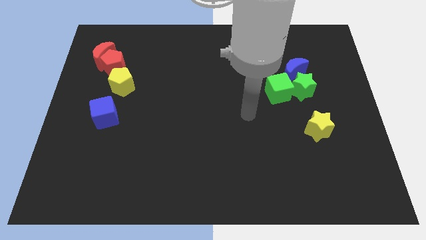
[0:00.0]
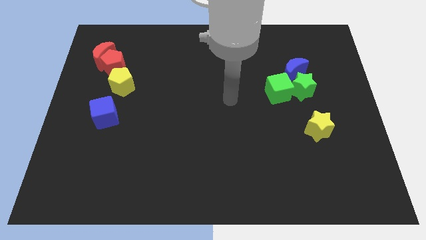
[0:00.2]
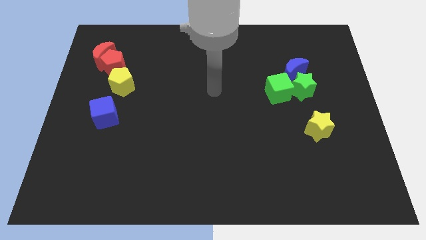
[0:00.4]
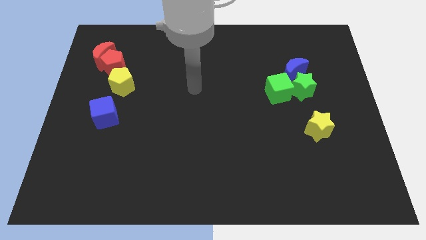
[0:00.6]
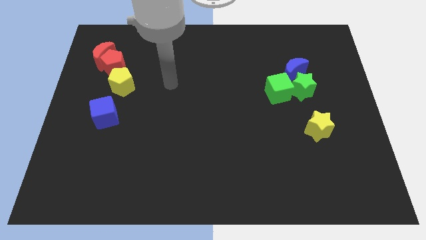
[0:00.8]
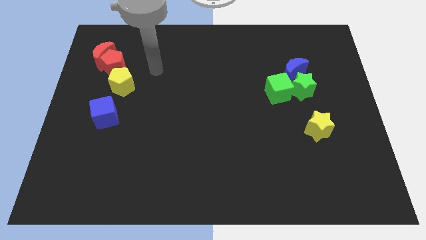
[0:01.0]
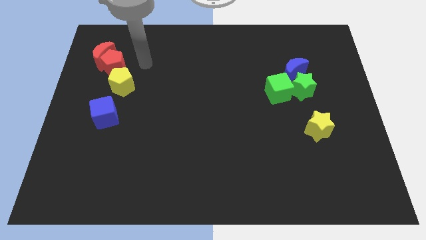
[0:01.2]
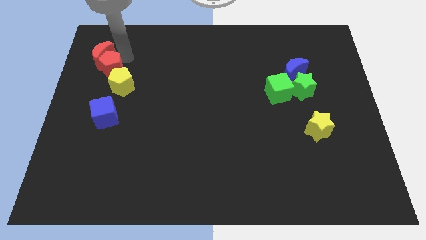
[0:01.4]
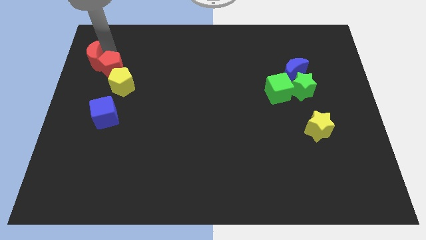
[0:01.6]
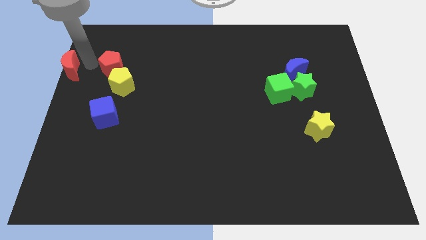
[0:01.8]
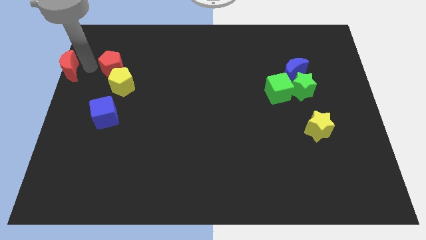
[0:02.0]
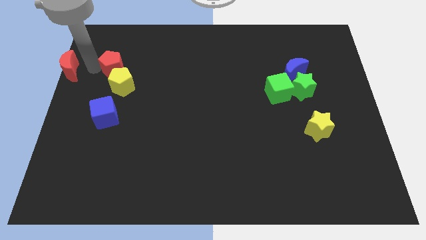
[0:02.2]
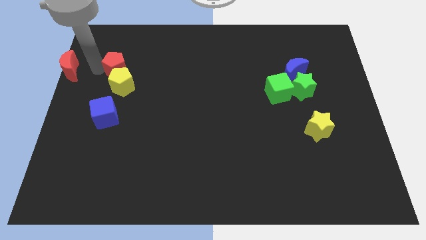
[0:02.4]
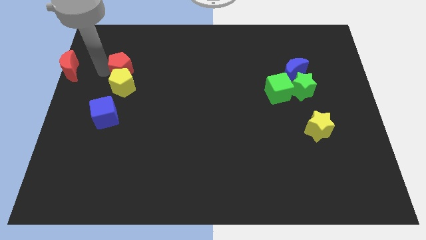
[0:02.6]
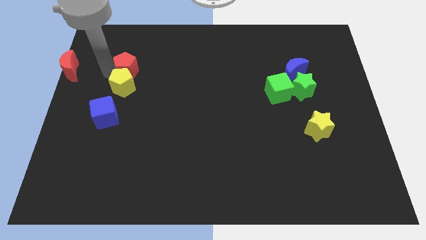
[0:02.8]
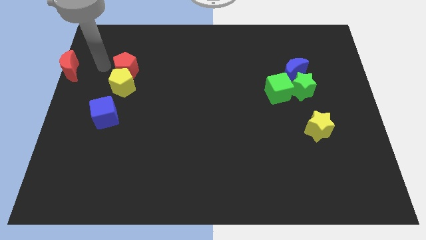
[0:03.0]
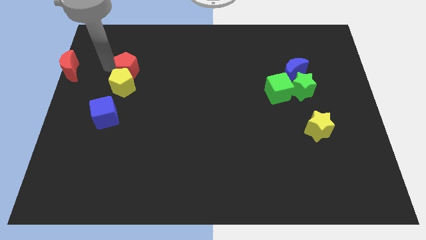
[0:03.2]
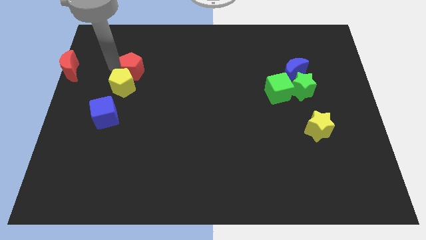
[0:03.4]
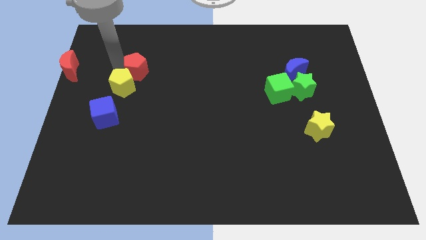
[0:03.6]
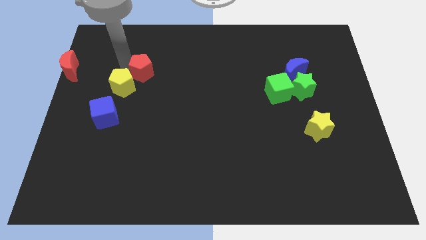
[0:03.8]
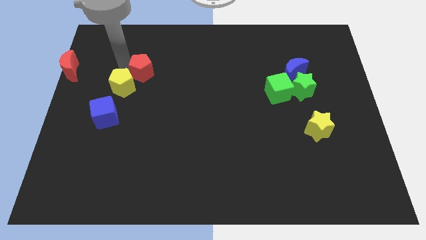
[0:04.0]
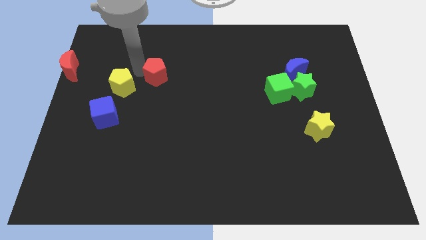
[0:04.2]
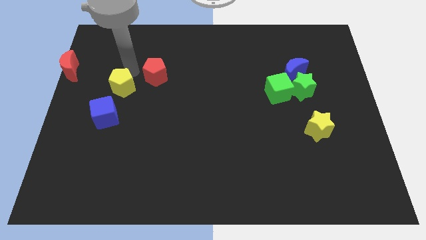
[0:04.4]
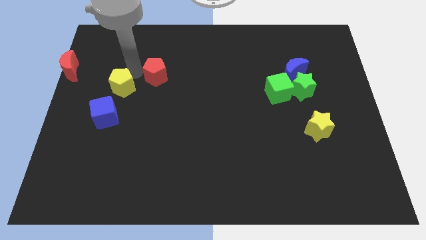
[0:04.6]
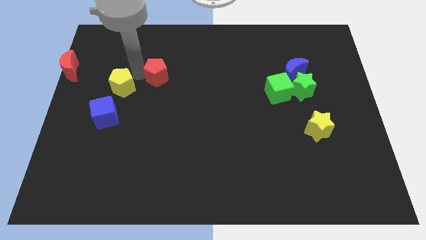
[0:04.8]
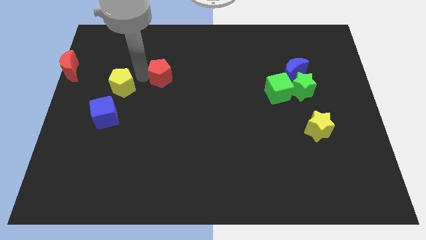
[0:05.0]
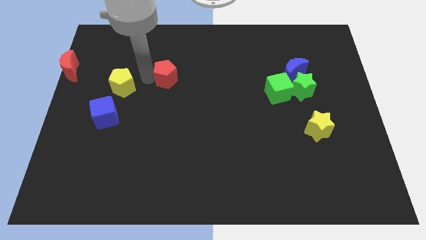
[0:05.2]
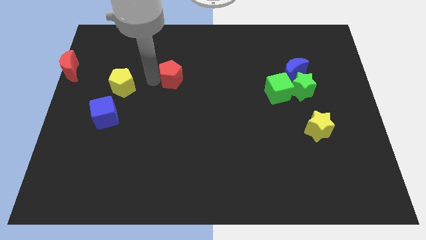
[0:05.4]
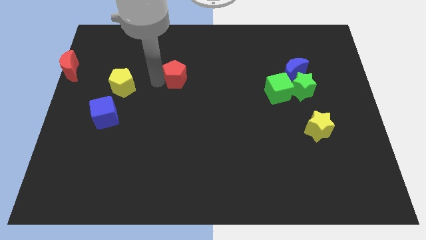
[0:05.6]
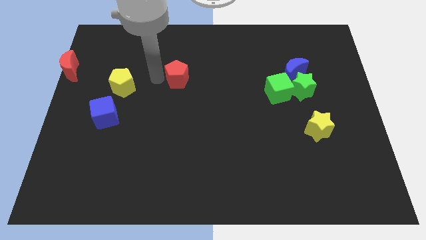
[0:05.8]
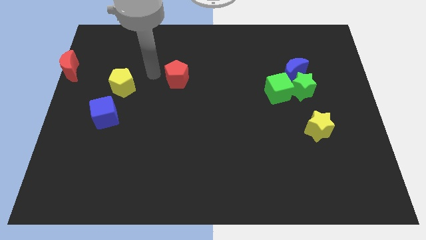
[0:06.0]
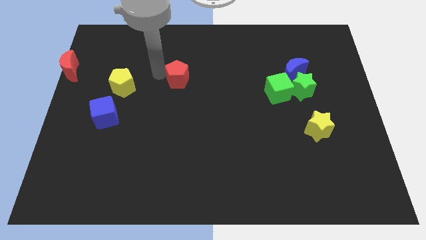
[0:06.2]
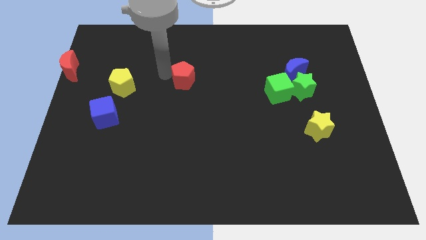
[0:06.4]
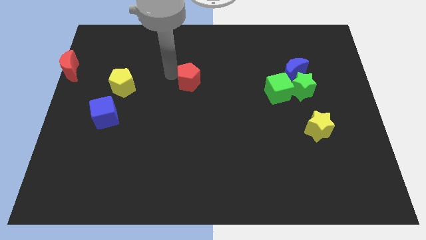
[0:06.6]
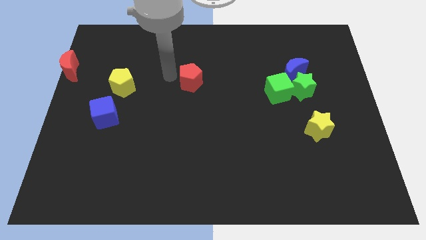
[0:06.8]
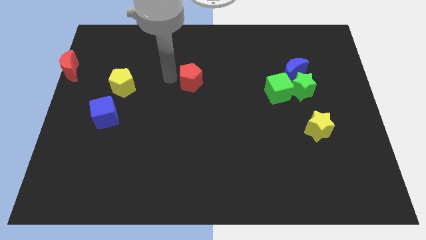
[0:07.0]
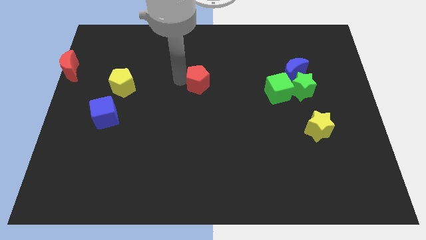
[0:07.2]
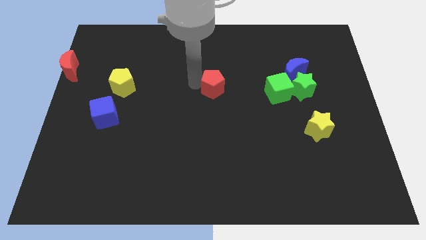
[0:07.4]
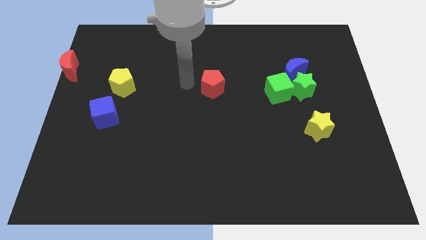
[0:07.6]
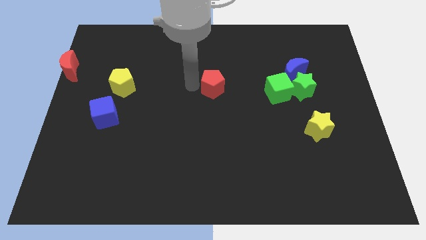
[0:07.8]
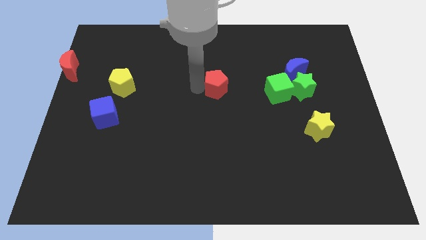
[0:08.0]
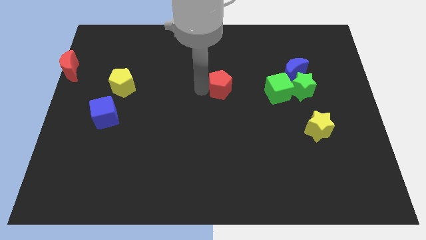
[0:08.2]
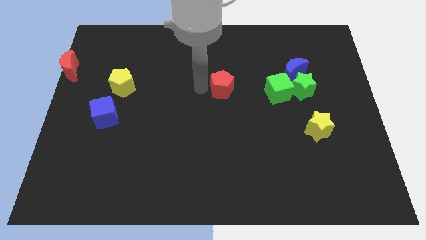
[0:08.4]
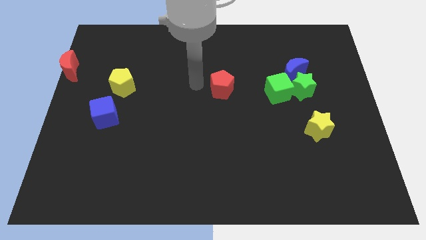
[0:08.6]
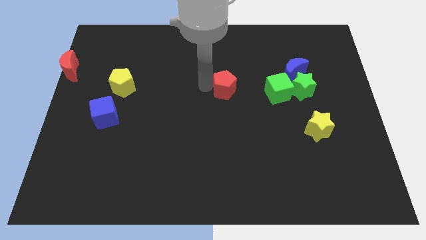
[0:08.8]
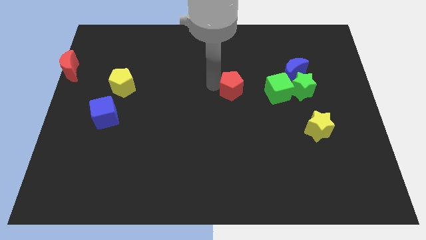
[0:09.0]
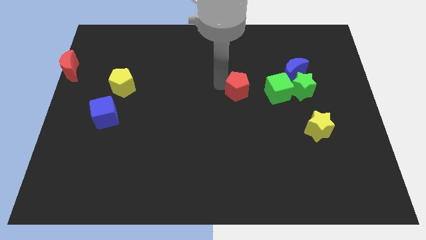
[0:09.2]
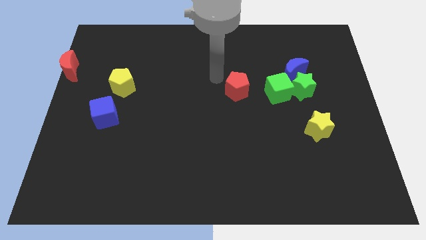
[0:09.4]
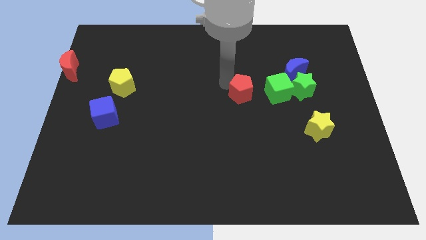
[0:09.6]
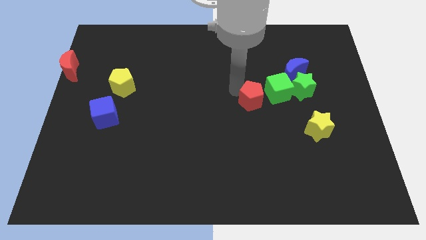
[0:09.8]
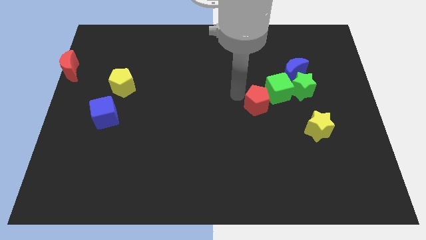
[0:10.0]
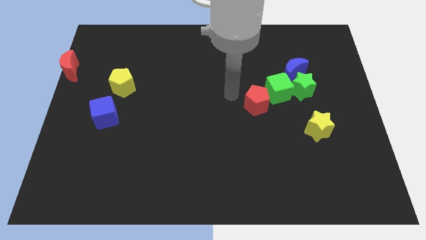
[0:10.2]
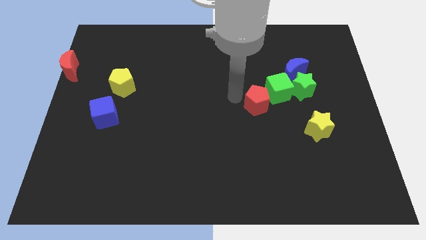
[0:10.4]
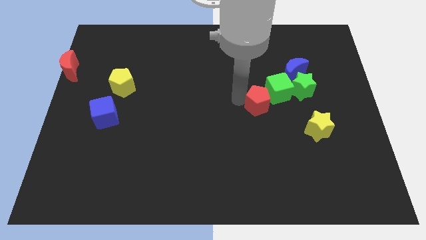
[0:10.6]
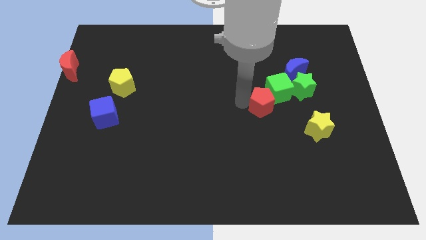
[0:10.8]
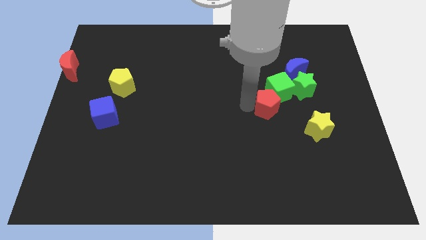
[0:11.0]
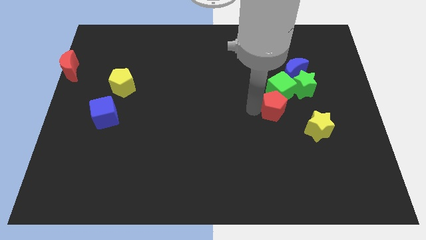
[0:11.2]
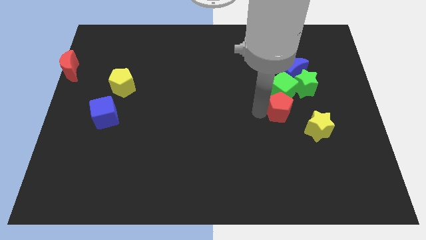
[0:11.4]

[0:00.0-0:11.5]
slide the red pentagon to the bottom of the blue moon

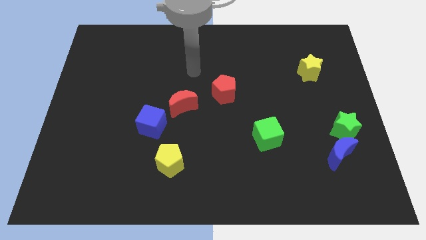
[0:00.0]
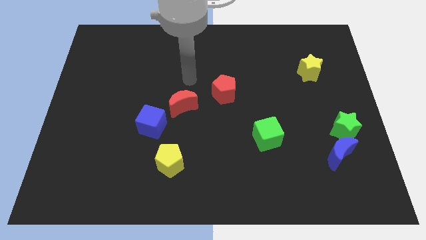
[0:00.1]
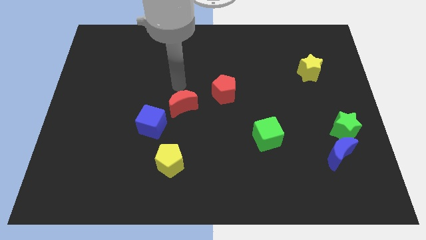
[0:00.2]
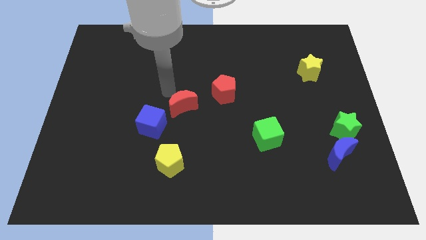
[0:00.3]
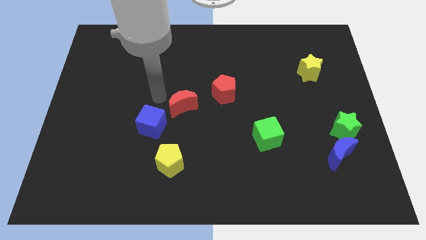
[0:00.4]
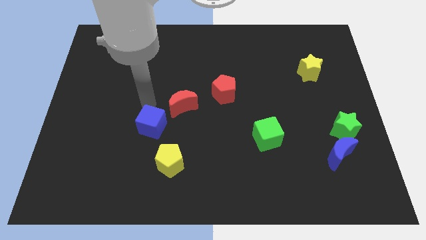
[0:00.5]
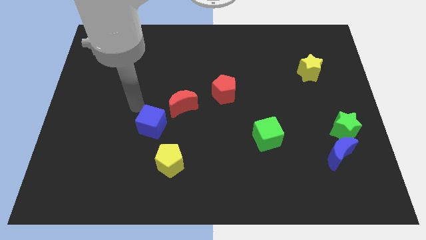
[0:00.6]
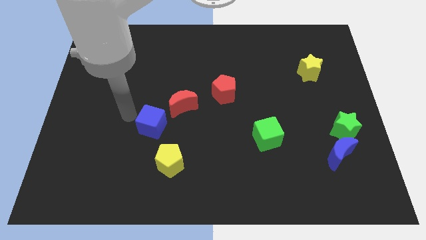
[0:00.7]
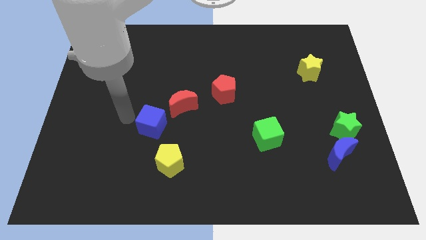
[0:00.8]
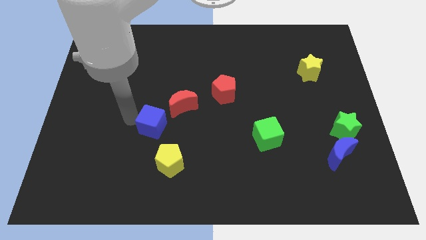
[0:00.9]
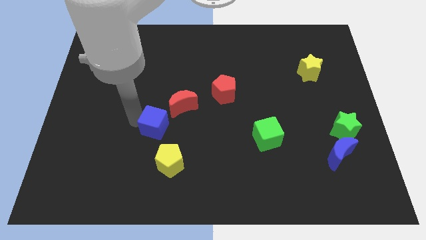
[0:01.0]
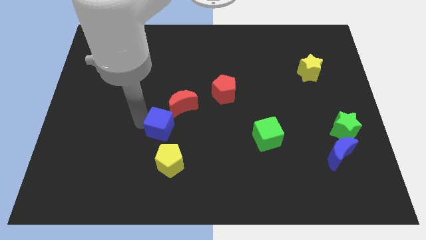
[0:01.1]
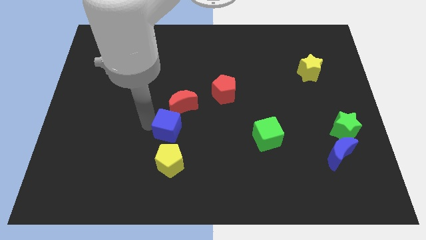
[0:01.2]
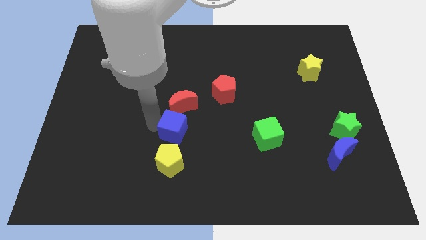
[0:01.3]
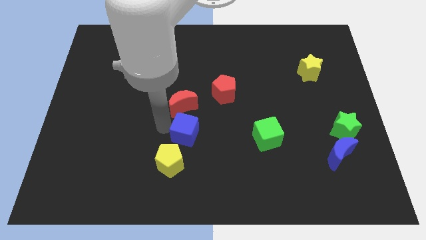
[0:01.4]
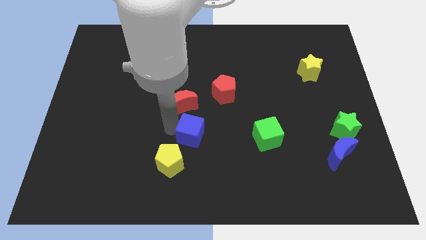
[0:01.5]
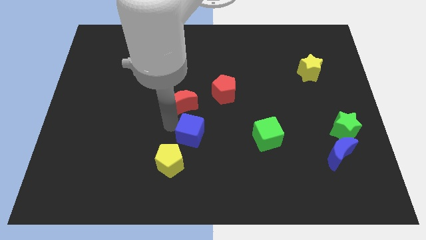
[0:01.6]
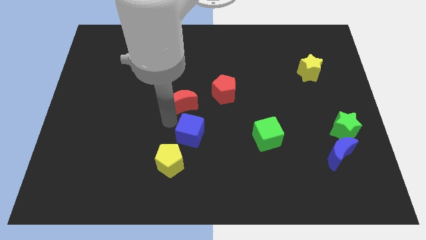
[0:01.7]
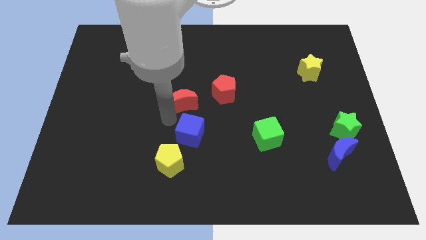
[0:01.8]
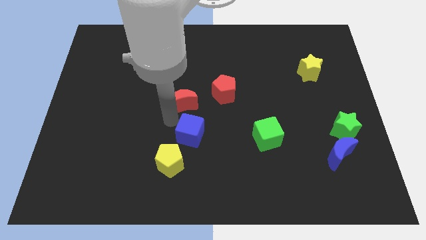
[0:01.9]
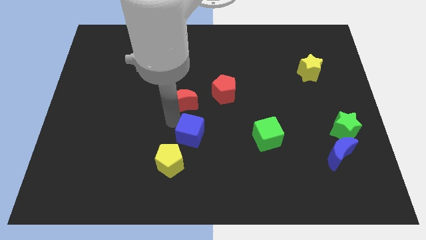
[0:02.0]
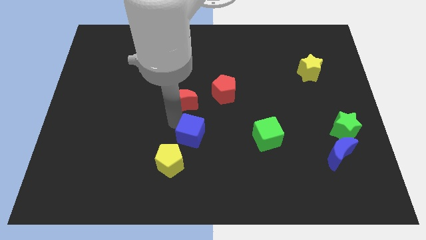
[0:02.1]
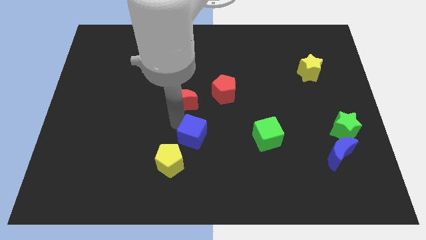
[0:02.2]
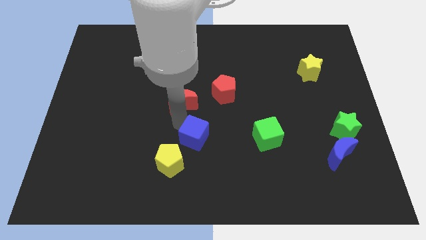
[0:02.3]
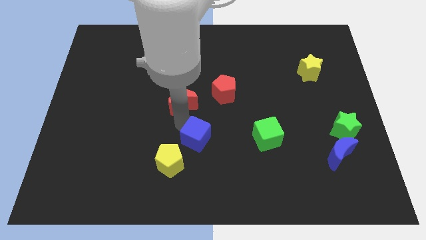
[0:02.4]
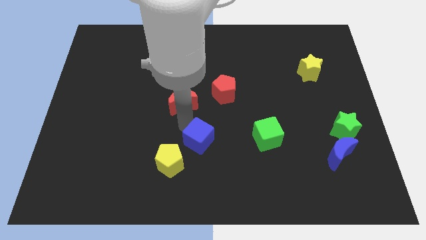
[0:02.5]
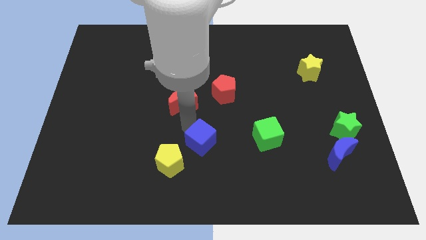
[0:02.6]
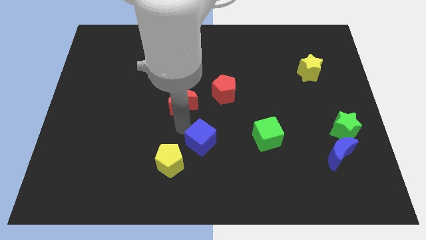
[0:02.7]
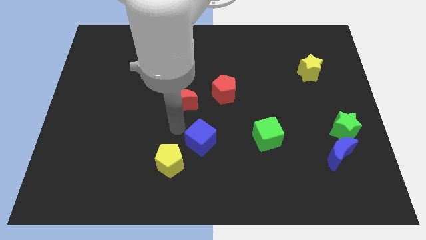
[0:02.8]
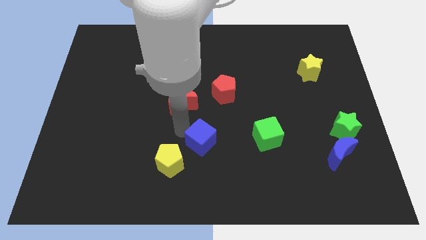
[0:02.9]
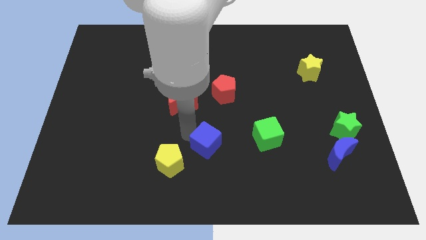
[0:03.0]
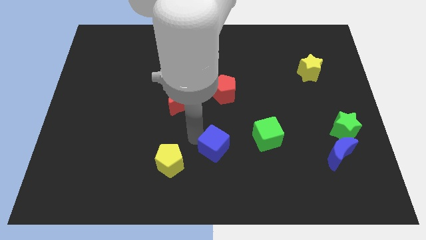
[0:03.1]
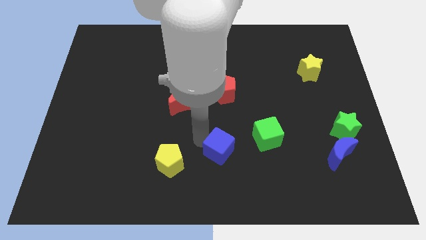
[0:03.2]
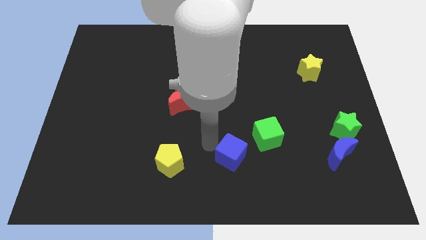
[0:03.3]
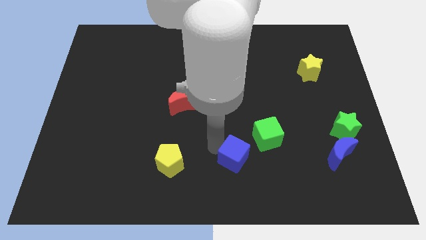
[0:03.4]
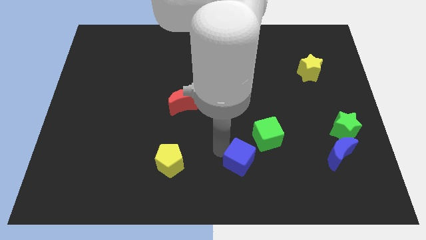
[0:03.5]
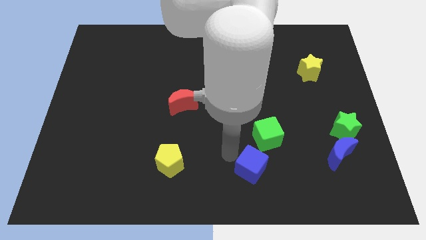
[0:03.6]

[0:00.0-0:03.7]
move the blue cube to the bottom of the green cube
